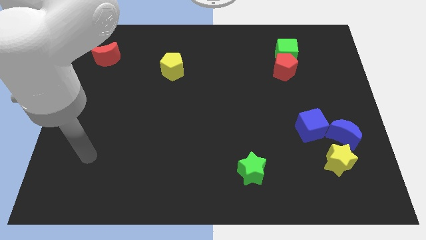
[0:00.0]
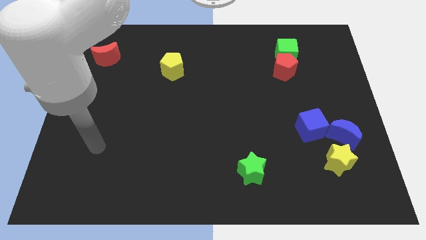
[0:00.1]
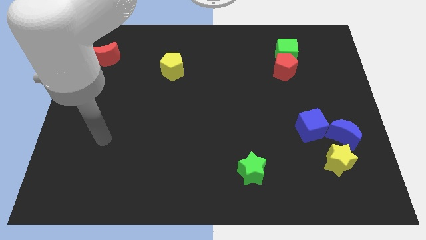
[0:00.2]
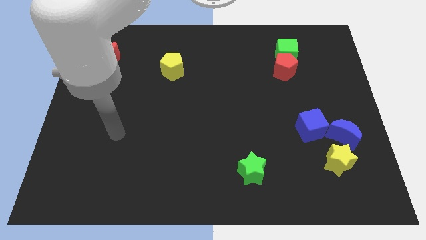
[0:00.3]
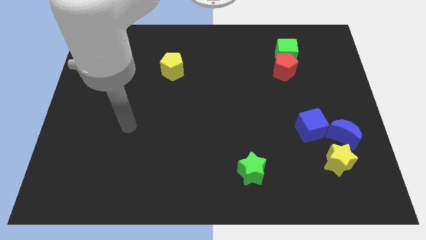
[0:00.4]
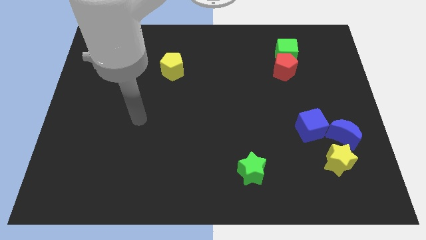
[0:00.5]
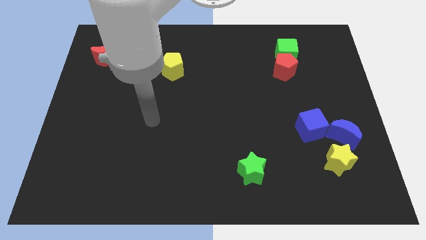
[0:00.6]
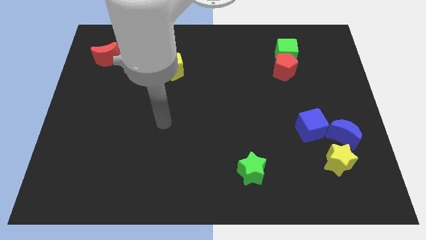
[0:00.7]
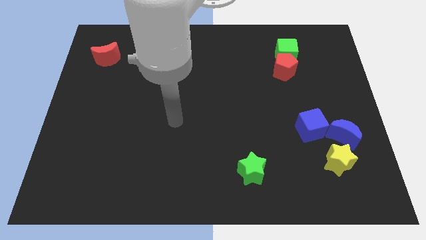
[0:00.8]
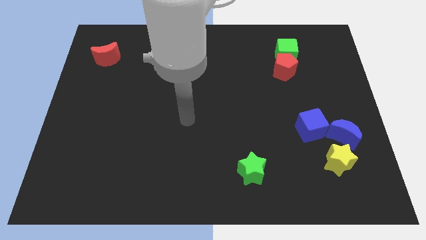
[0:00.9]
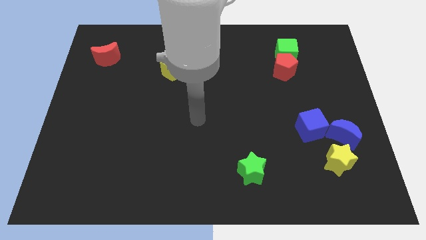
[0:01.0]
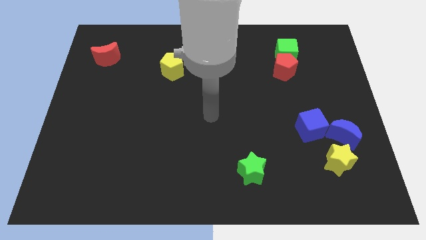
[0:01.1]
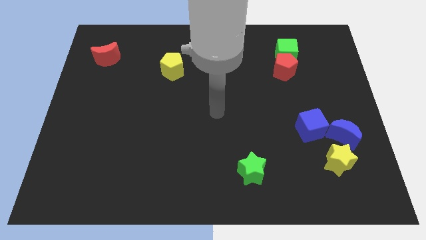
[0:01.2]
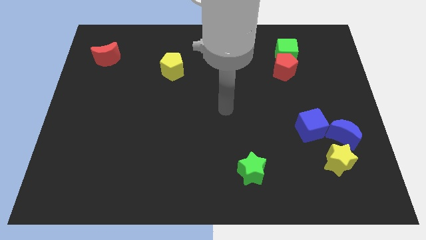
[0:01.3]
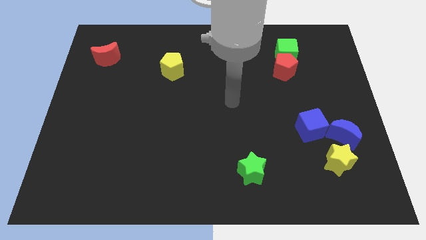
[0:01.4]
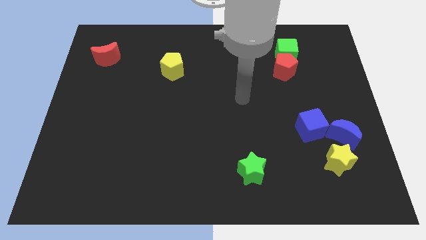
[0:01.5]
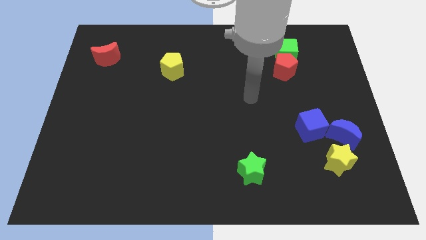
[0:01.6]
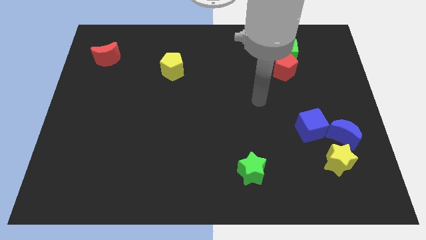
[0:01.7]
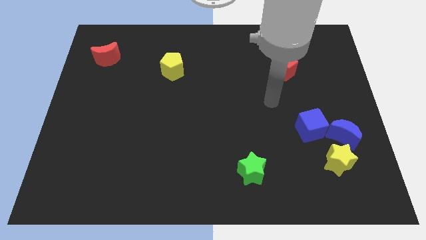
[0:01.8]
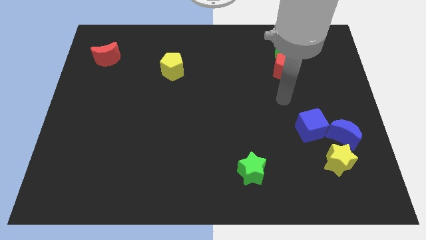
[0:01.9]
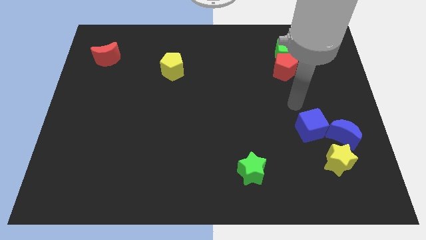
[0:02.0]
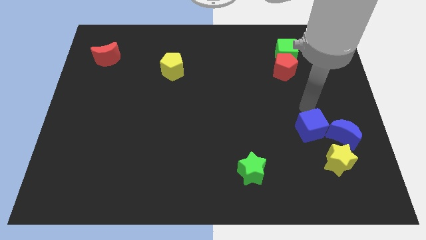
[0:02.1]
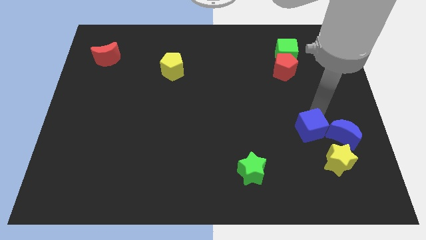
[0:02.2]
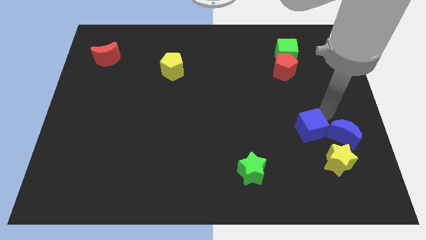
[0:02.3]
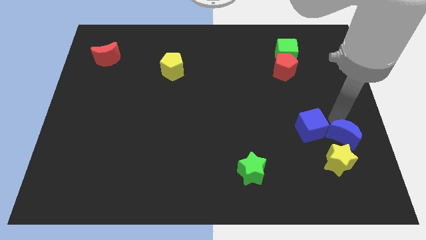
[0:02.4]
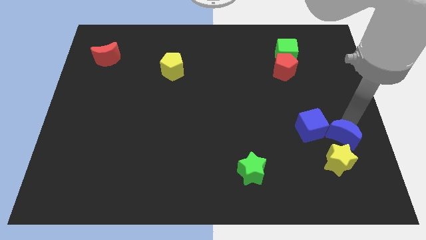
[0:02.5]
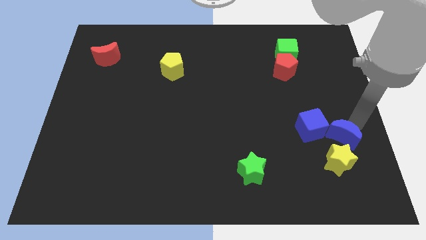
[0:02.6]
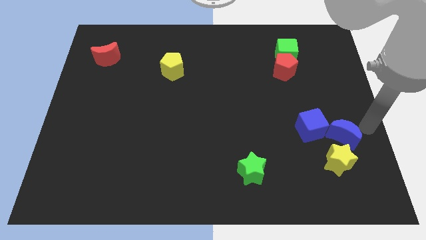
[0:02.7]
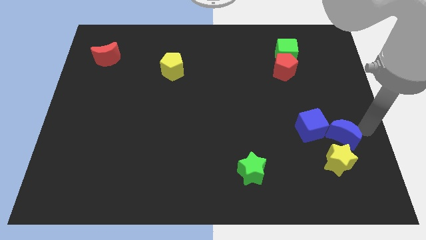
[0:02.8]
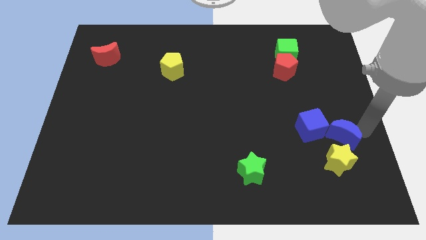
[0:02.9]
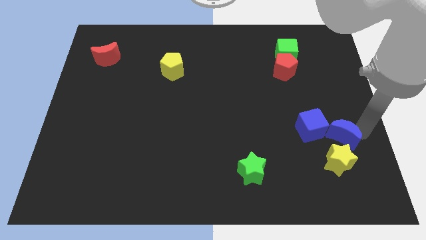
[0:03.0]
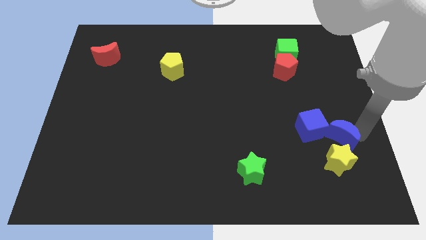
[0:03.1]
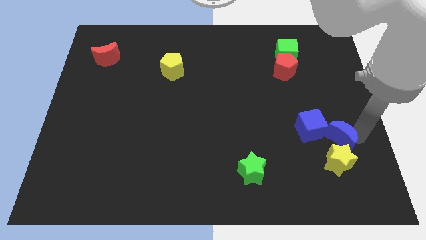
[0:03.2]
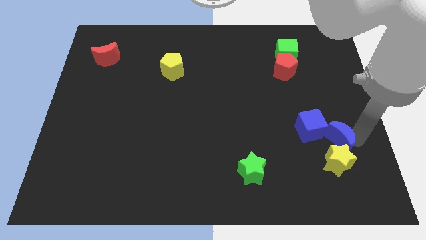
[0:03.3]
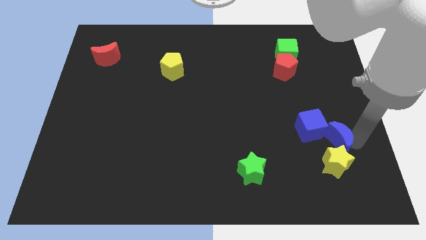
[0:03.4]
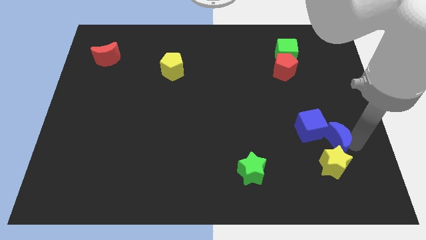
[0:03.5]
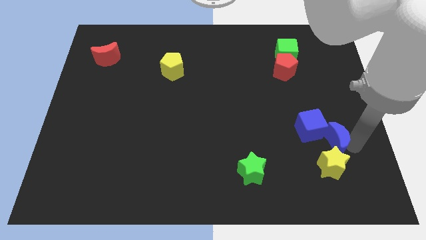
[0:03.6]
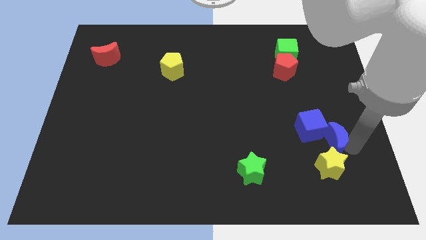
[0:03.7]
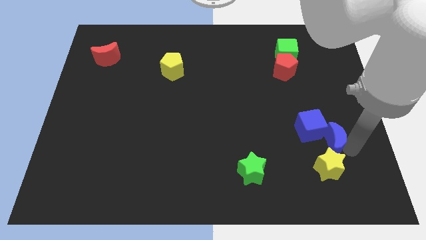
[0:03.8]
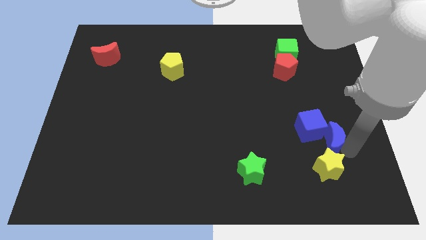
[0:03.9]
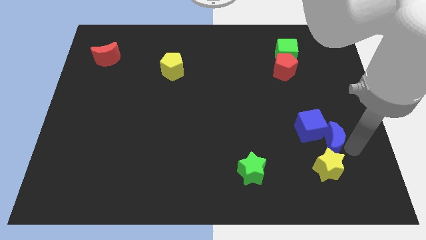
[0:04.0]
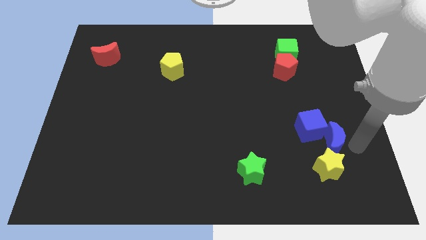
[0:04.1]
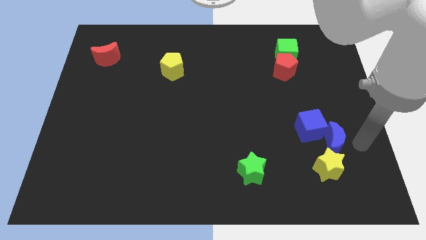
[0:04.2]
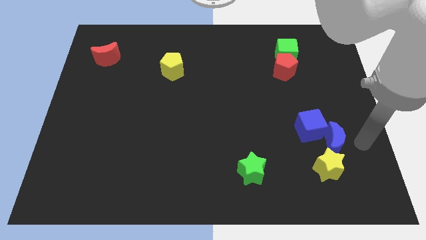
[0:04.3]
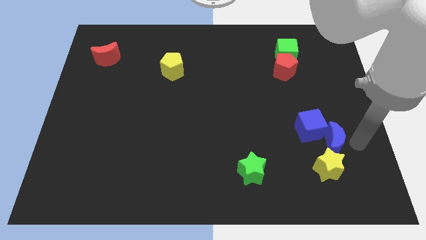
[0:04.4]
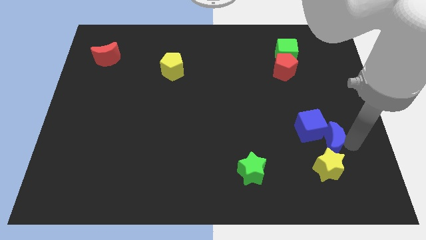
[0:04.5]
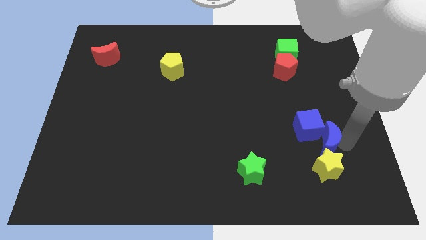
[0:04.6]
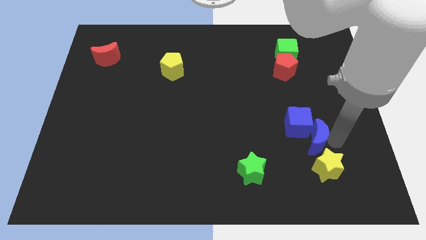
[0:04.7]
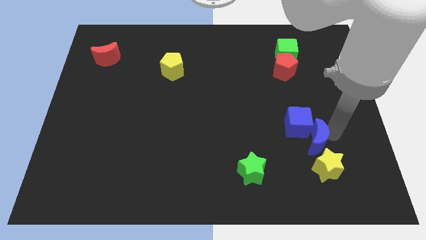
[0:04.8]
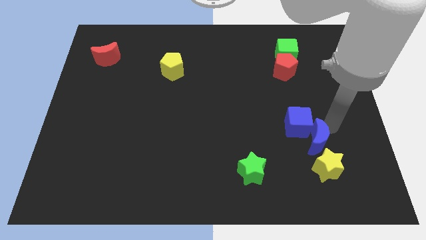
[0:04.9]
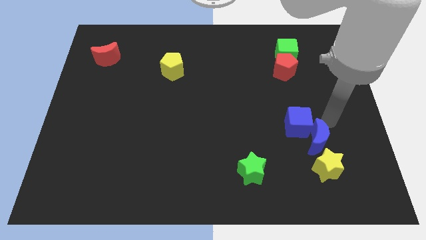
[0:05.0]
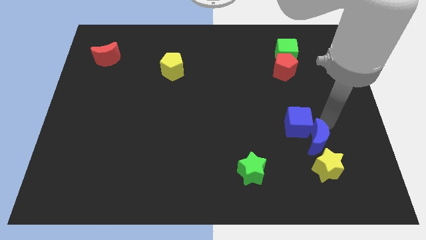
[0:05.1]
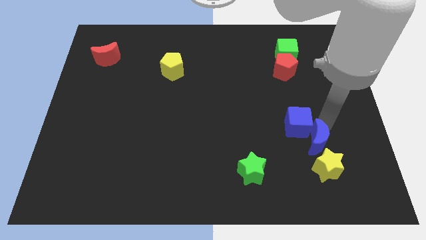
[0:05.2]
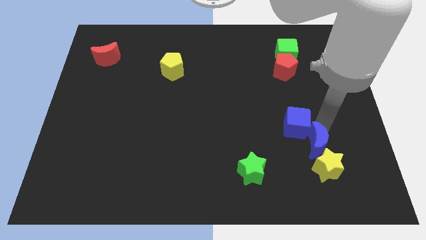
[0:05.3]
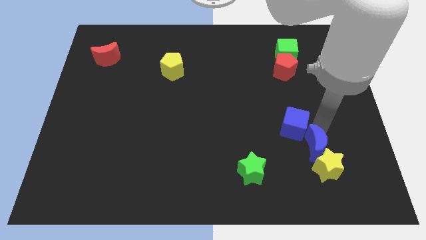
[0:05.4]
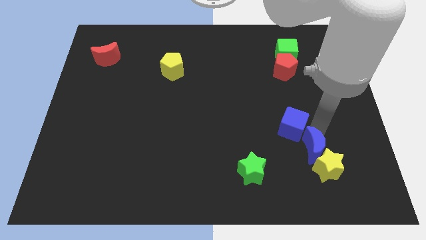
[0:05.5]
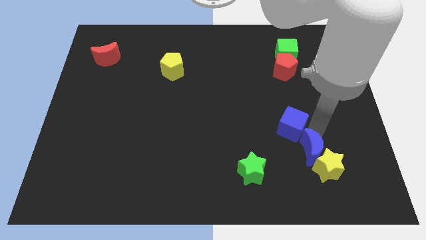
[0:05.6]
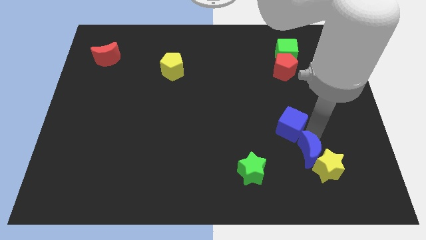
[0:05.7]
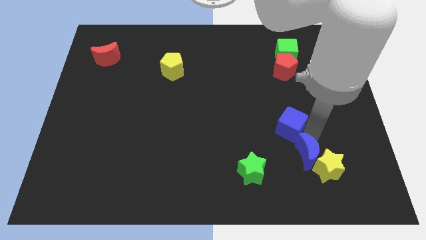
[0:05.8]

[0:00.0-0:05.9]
move the blue moon to the right of the green star

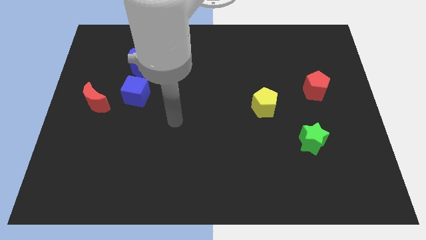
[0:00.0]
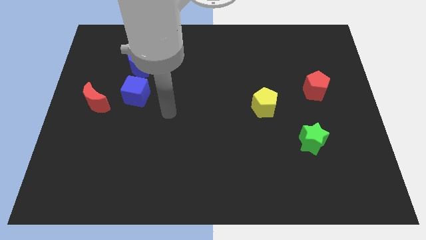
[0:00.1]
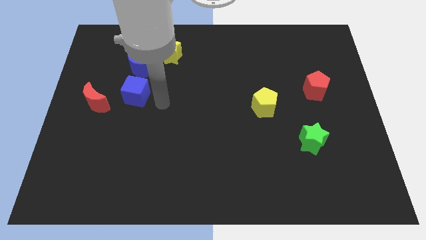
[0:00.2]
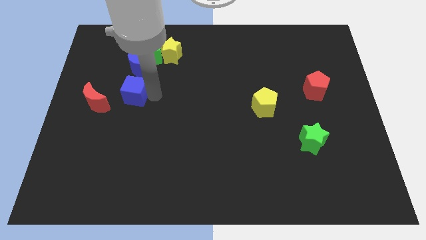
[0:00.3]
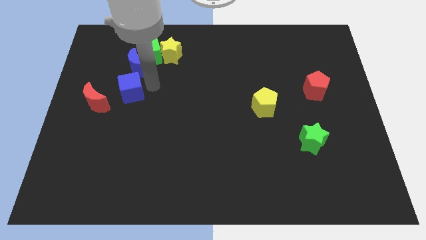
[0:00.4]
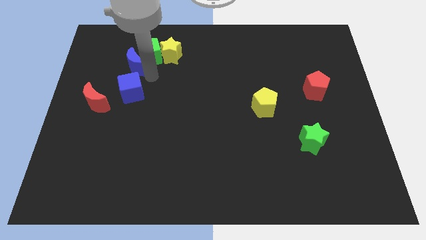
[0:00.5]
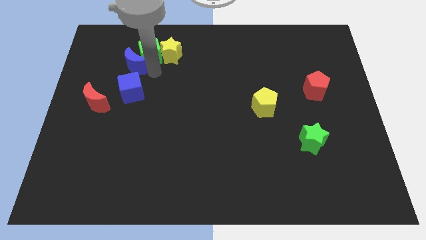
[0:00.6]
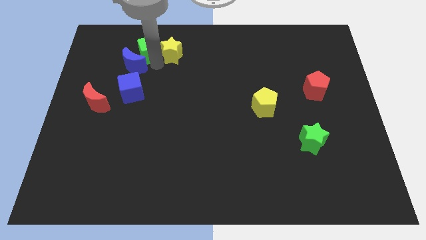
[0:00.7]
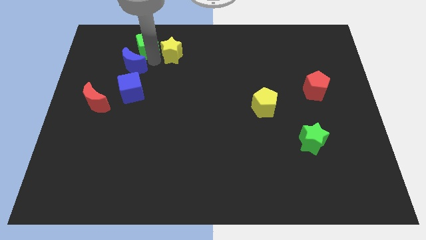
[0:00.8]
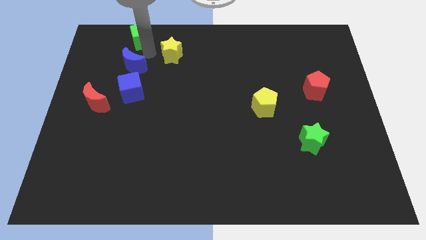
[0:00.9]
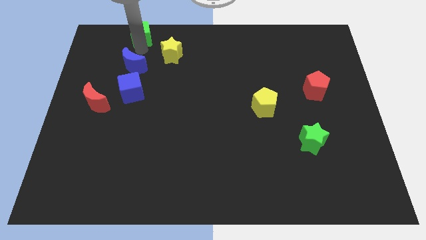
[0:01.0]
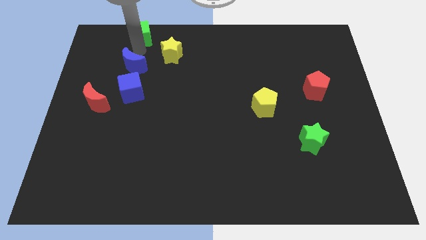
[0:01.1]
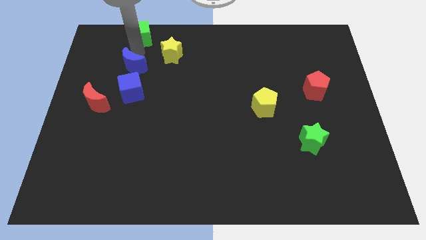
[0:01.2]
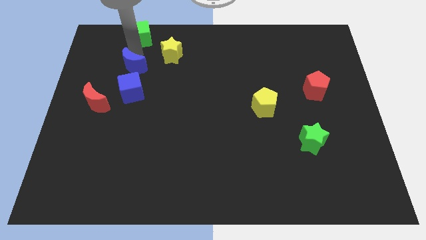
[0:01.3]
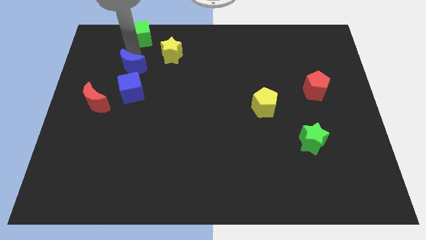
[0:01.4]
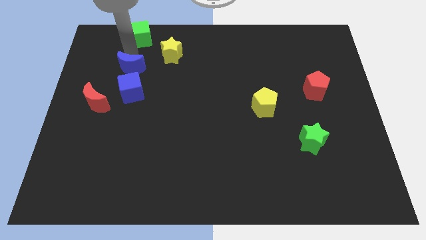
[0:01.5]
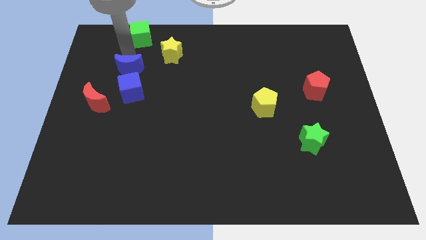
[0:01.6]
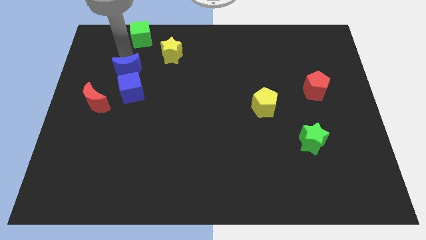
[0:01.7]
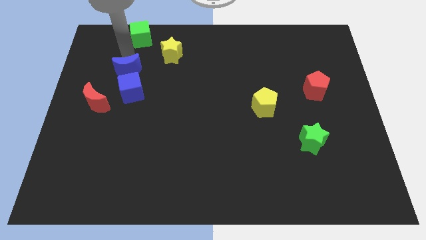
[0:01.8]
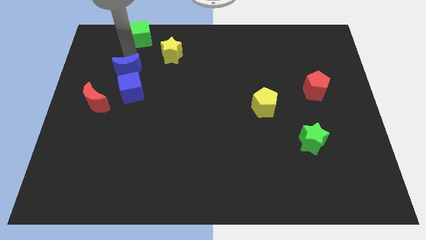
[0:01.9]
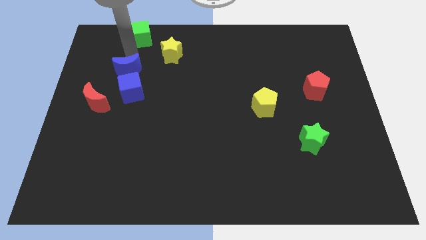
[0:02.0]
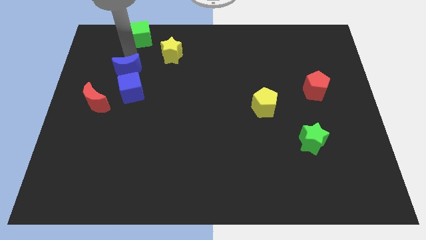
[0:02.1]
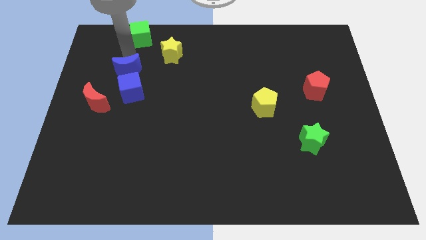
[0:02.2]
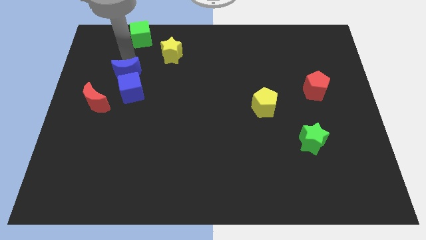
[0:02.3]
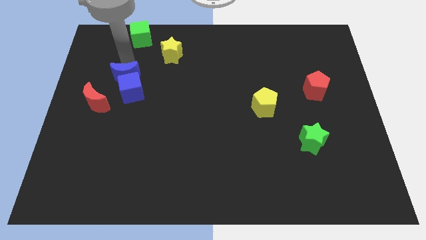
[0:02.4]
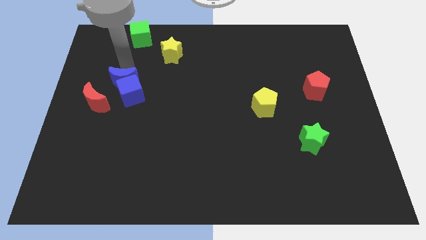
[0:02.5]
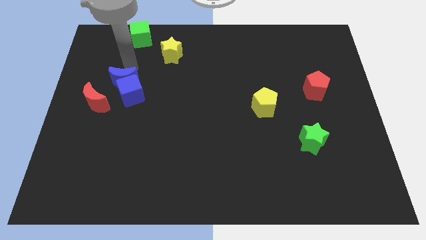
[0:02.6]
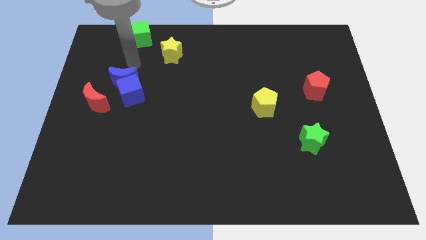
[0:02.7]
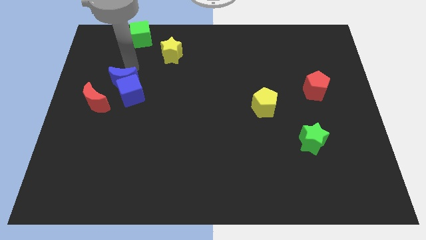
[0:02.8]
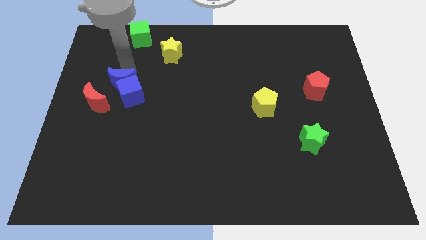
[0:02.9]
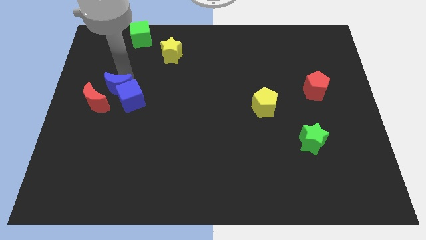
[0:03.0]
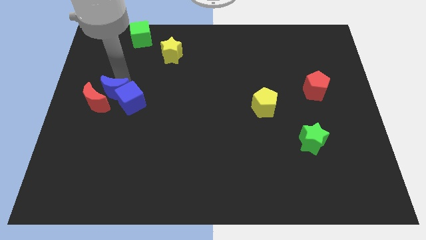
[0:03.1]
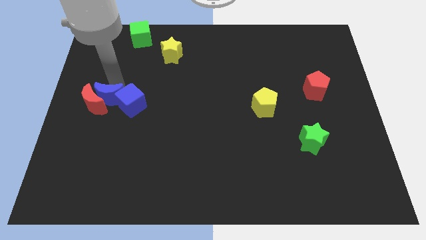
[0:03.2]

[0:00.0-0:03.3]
slide the blue moon to the bottom right of the red moon
